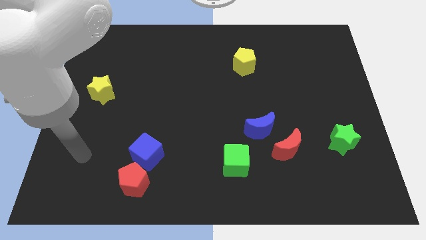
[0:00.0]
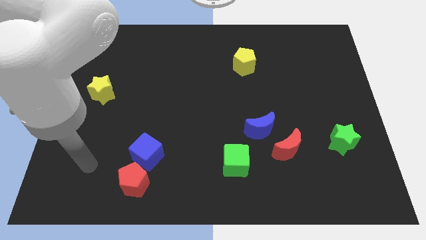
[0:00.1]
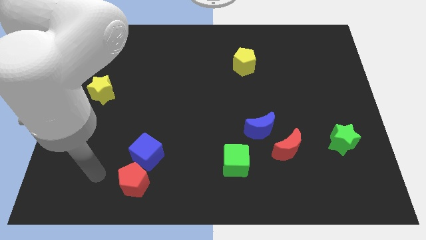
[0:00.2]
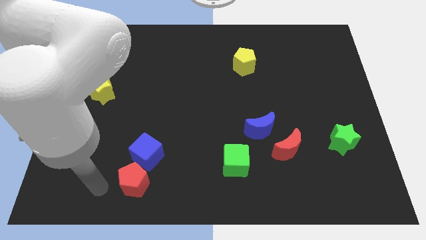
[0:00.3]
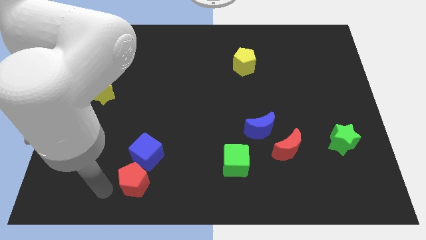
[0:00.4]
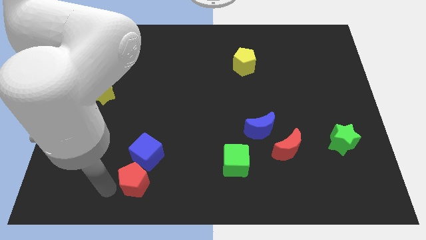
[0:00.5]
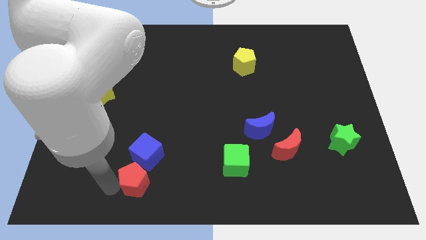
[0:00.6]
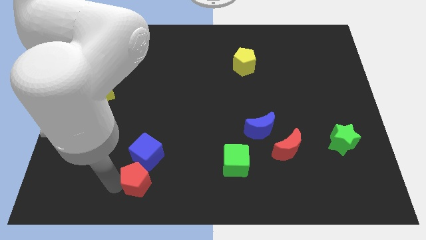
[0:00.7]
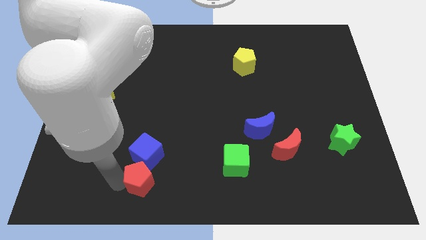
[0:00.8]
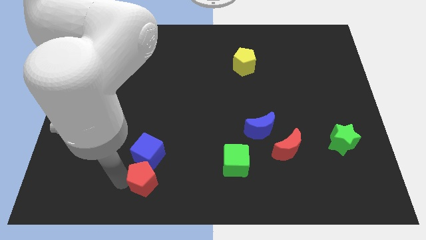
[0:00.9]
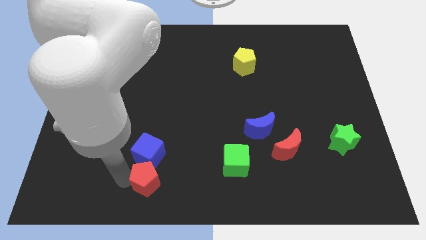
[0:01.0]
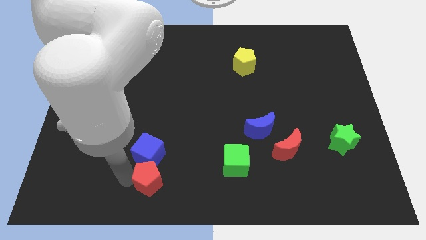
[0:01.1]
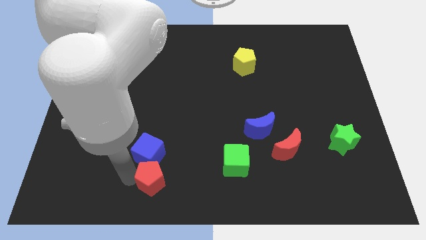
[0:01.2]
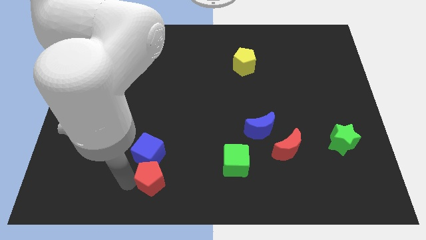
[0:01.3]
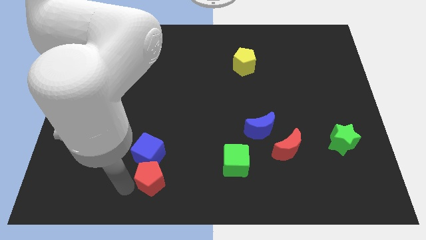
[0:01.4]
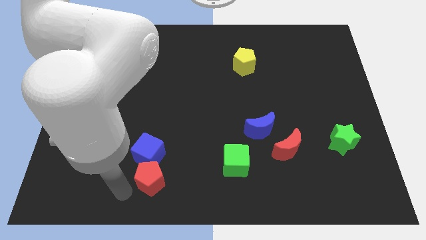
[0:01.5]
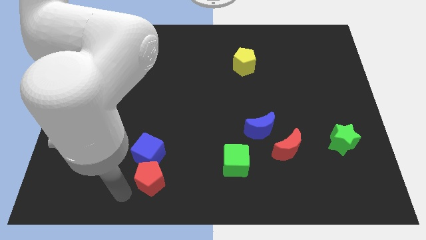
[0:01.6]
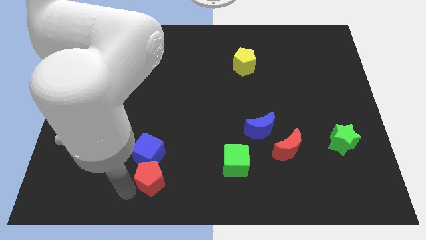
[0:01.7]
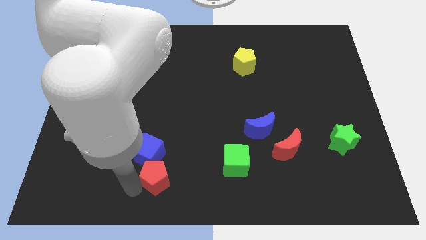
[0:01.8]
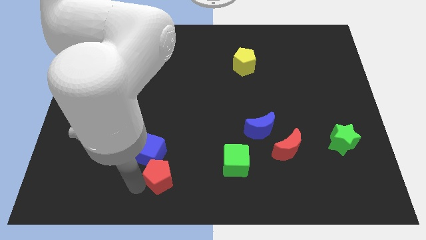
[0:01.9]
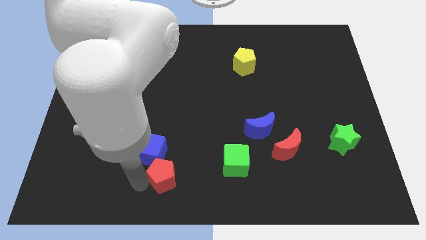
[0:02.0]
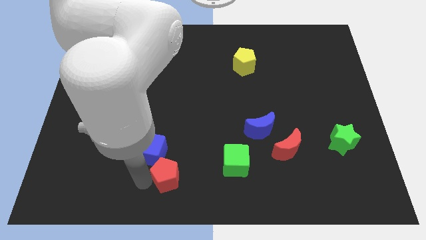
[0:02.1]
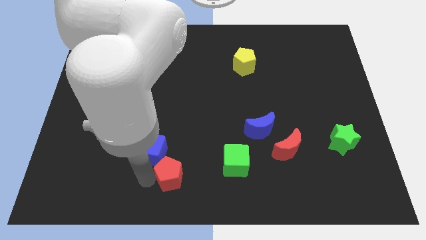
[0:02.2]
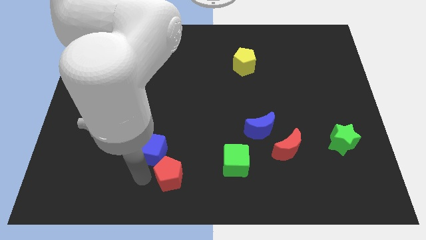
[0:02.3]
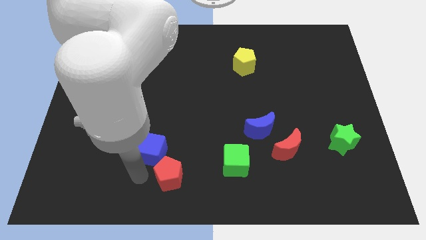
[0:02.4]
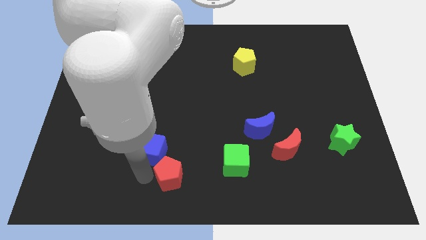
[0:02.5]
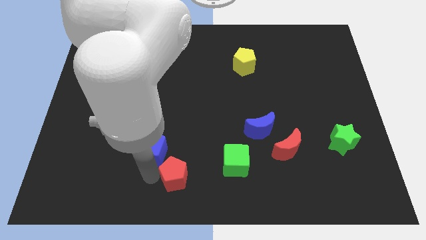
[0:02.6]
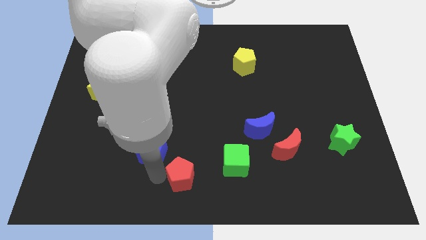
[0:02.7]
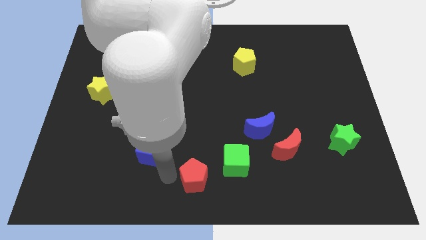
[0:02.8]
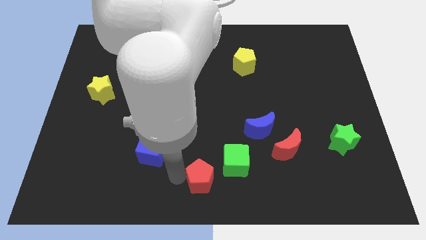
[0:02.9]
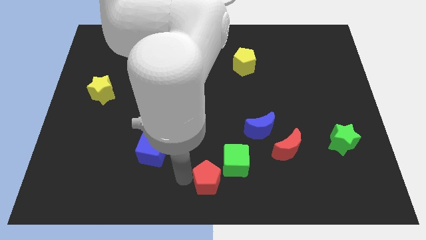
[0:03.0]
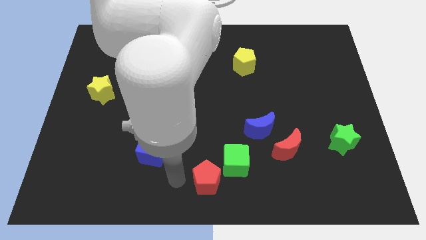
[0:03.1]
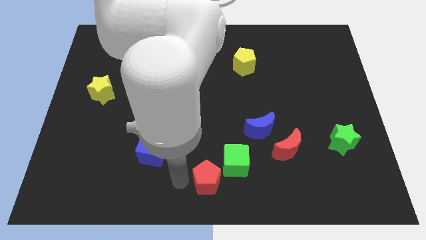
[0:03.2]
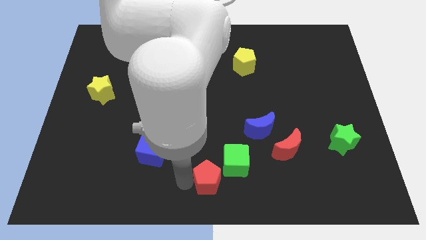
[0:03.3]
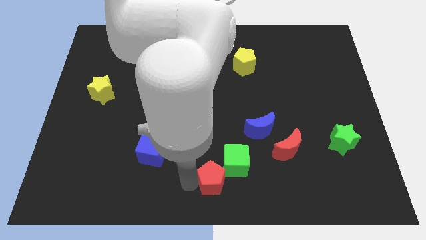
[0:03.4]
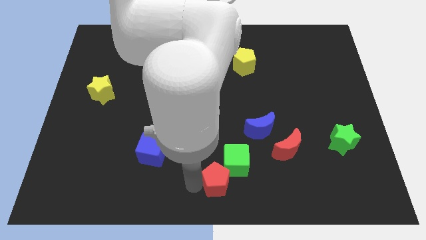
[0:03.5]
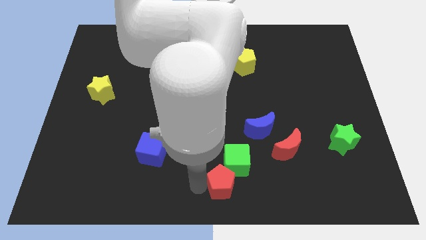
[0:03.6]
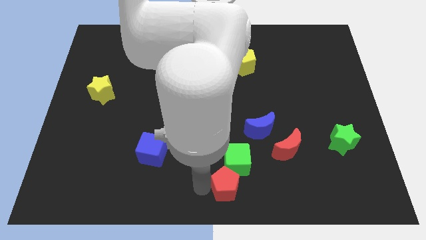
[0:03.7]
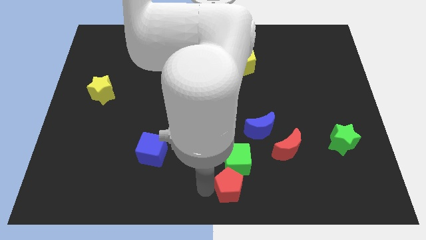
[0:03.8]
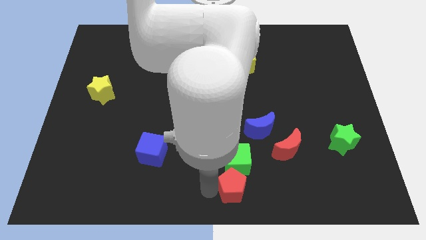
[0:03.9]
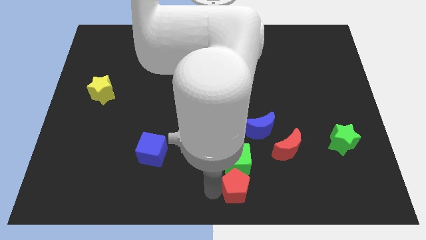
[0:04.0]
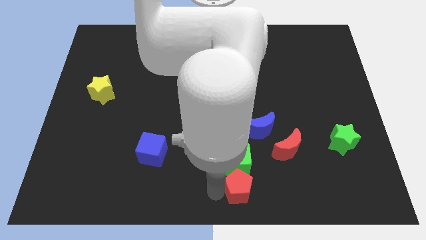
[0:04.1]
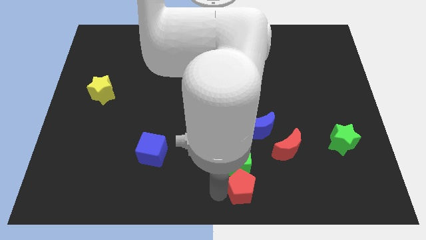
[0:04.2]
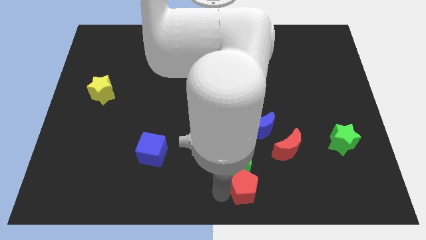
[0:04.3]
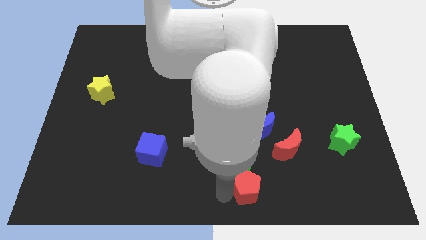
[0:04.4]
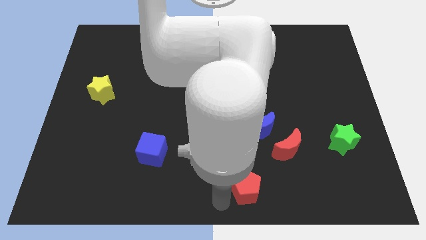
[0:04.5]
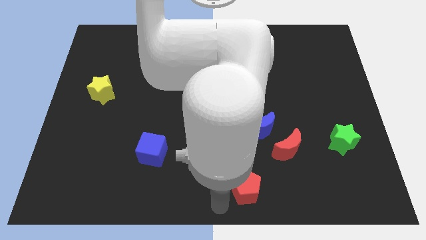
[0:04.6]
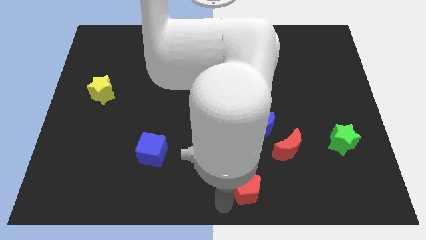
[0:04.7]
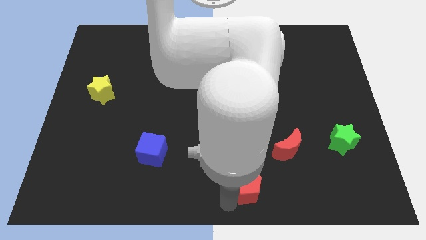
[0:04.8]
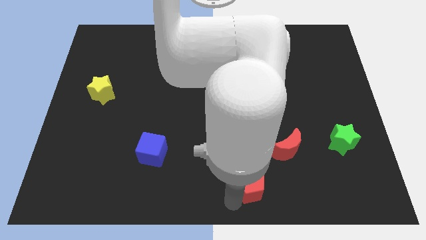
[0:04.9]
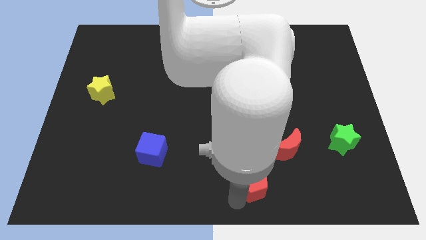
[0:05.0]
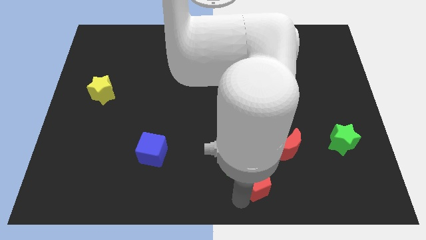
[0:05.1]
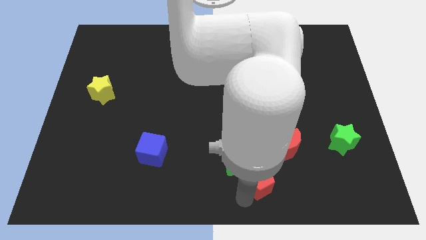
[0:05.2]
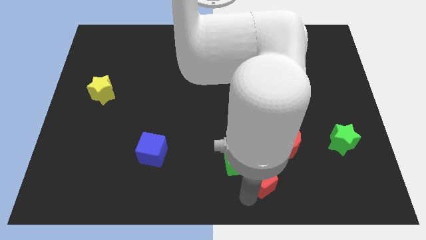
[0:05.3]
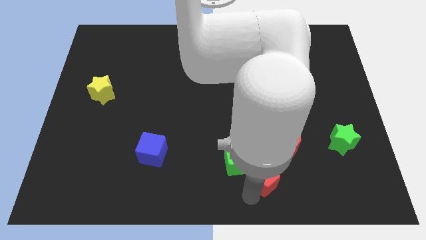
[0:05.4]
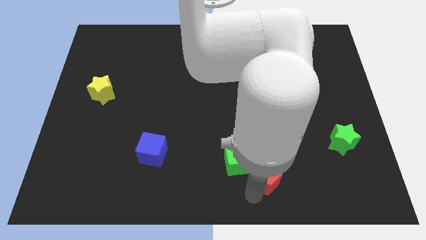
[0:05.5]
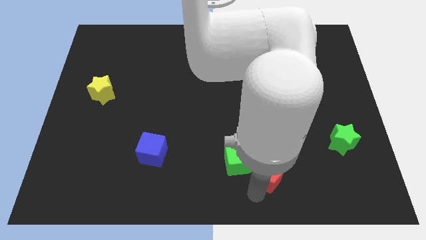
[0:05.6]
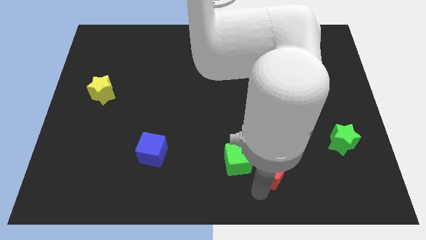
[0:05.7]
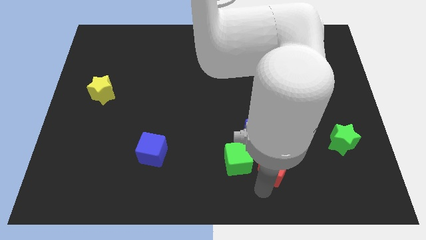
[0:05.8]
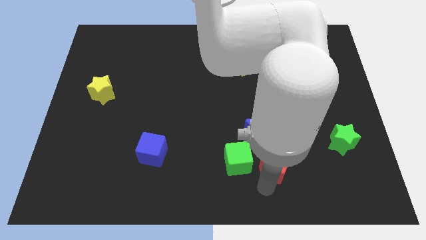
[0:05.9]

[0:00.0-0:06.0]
push the red pentagon close to the red moon

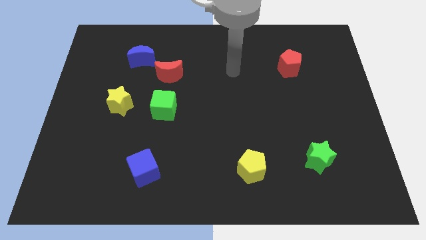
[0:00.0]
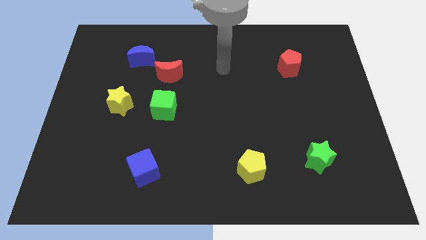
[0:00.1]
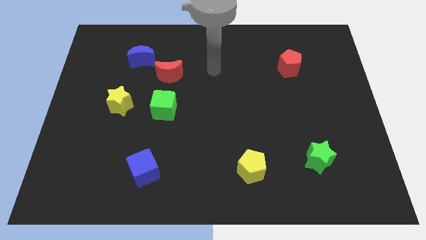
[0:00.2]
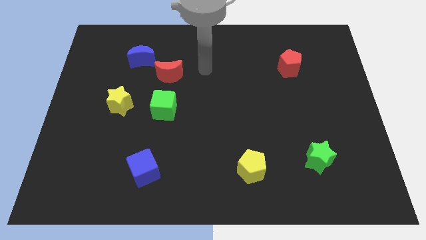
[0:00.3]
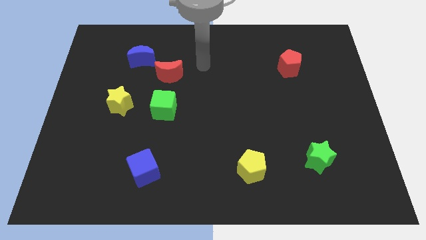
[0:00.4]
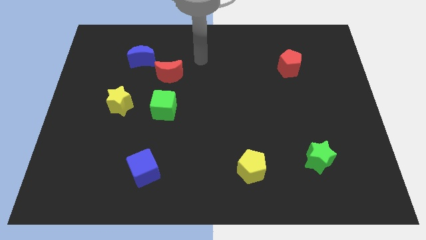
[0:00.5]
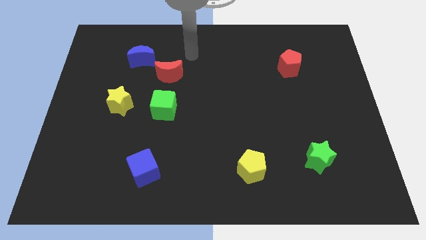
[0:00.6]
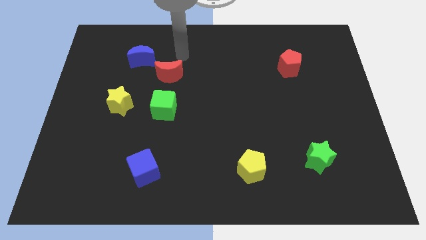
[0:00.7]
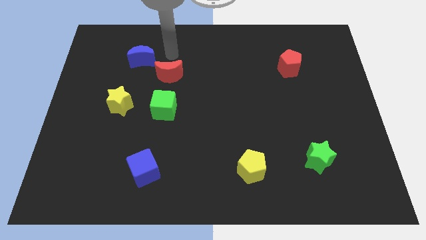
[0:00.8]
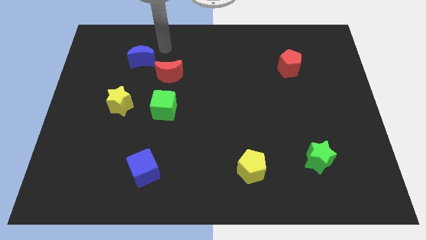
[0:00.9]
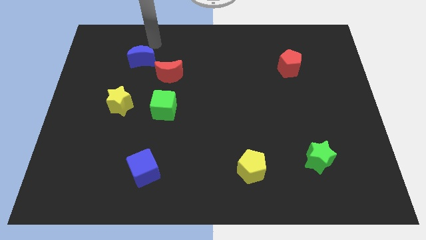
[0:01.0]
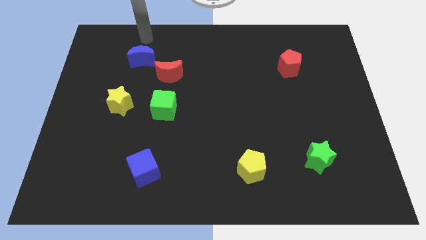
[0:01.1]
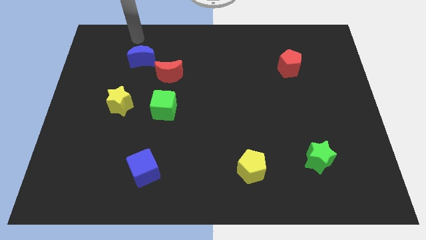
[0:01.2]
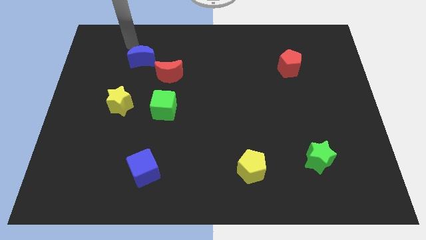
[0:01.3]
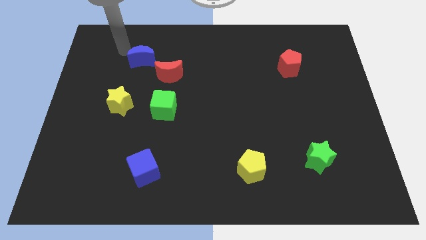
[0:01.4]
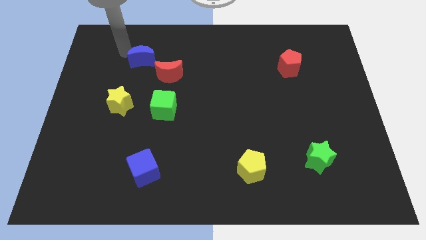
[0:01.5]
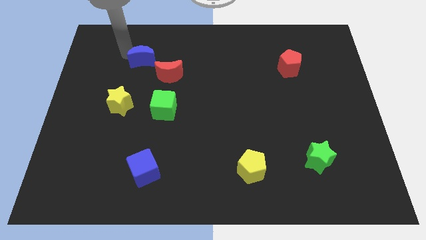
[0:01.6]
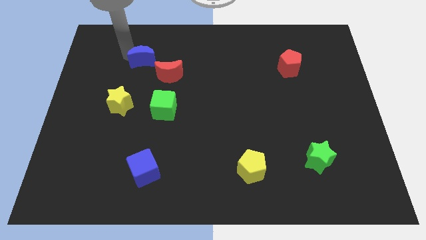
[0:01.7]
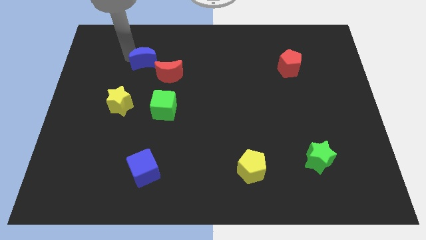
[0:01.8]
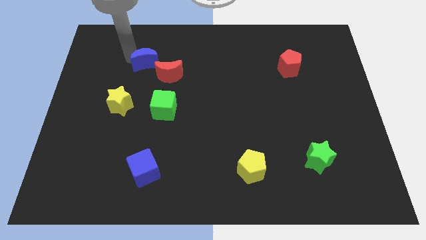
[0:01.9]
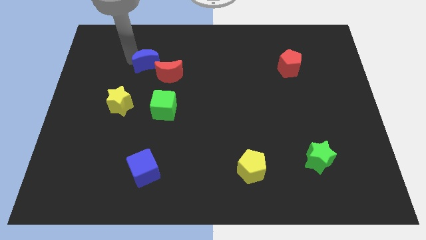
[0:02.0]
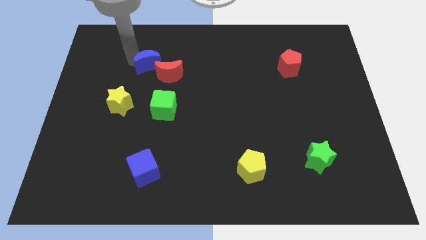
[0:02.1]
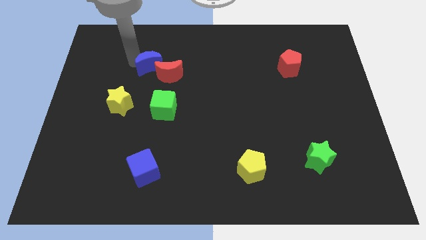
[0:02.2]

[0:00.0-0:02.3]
put the blue moon to the red moon
